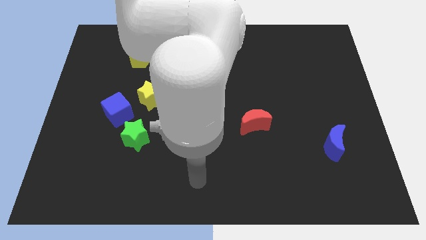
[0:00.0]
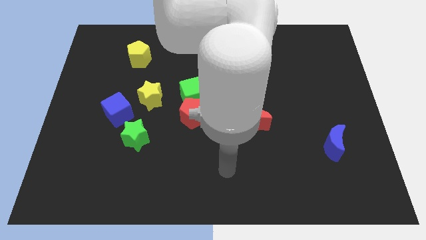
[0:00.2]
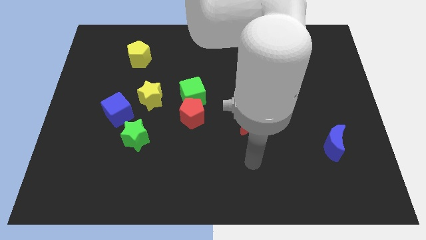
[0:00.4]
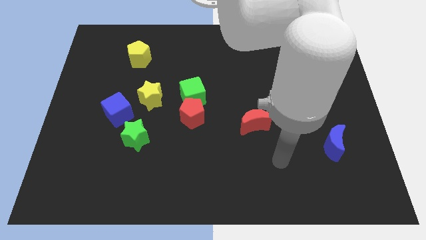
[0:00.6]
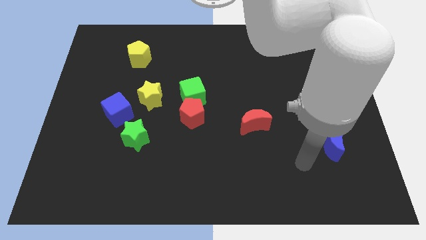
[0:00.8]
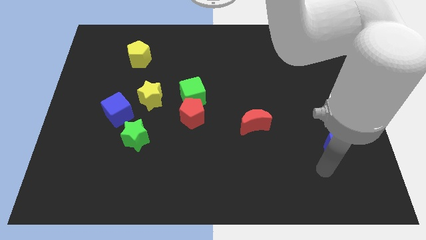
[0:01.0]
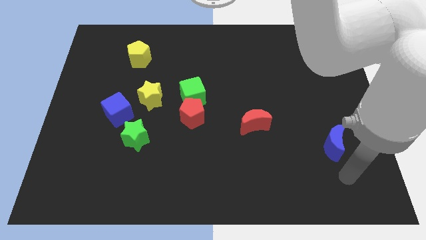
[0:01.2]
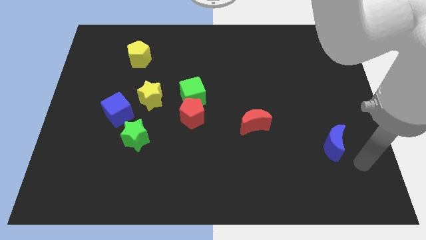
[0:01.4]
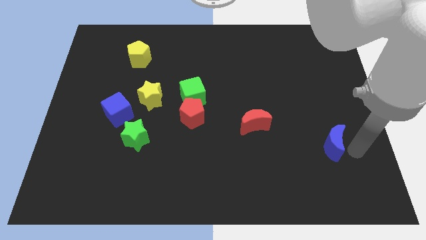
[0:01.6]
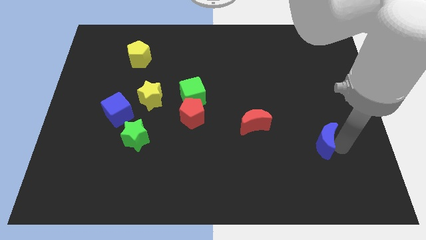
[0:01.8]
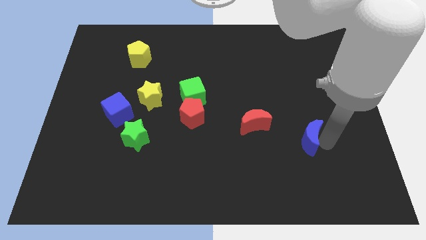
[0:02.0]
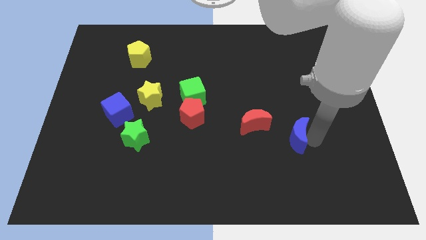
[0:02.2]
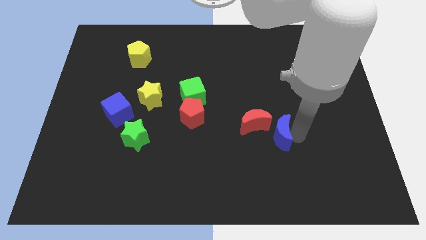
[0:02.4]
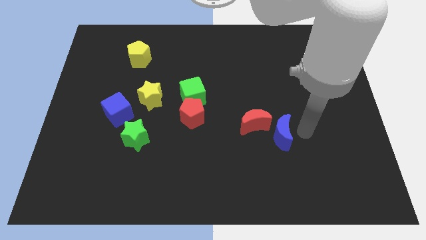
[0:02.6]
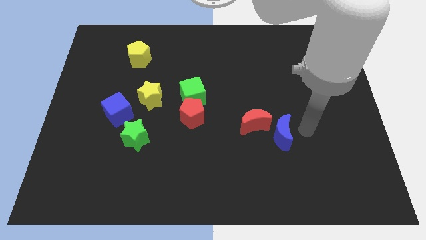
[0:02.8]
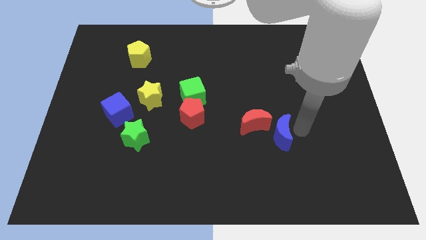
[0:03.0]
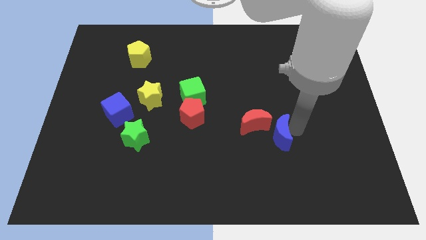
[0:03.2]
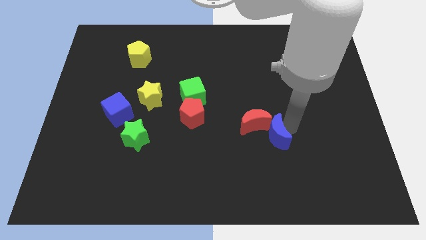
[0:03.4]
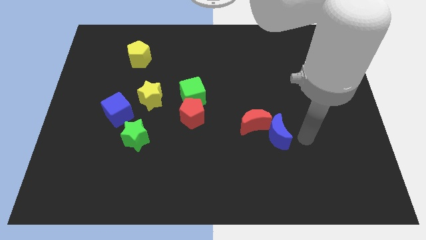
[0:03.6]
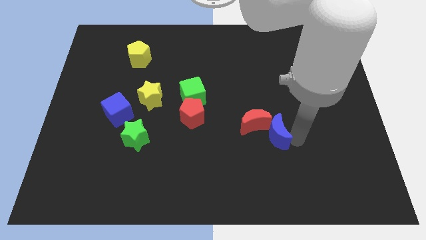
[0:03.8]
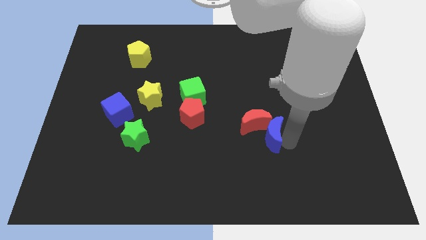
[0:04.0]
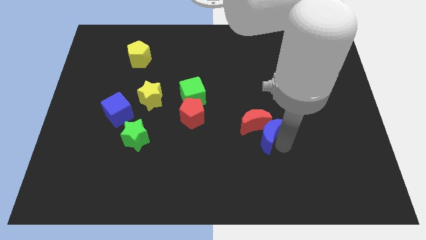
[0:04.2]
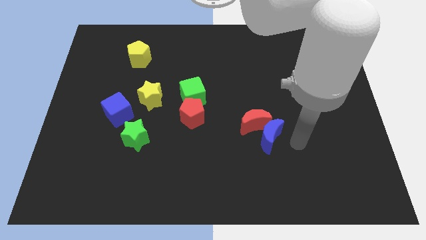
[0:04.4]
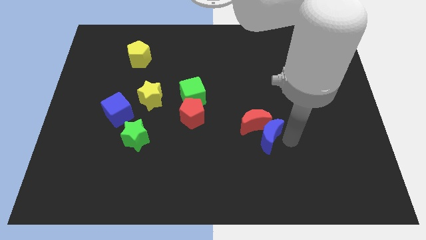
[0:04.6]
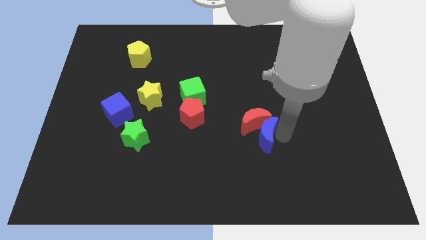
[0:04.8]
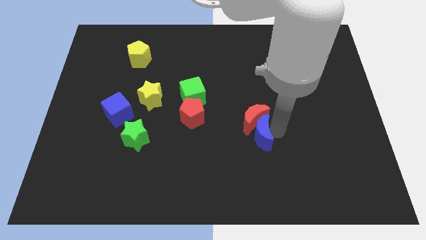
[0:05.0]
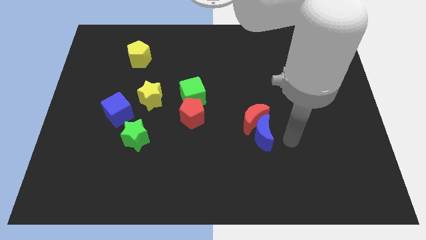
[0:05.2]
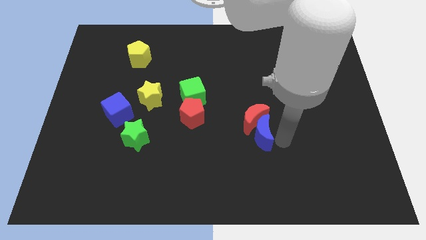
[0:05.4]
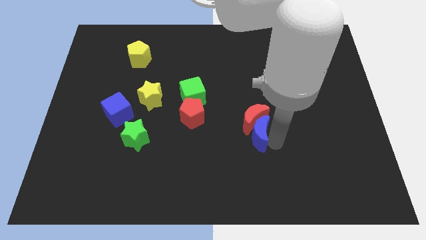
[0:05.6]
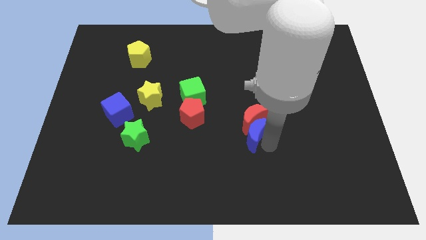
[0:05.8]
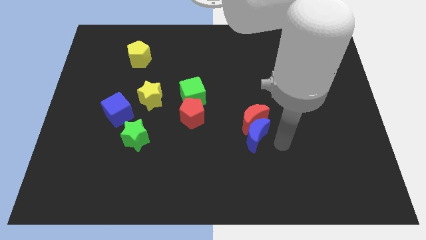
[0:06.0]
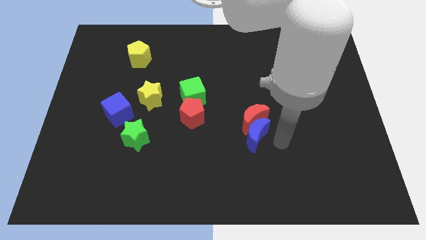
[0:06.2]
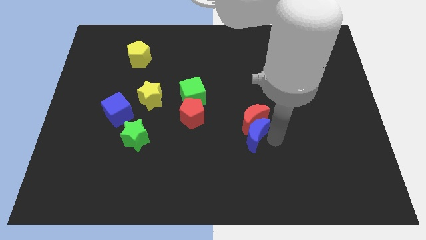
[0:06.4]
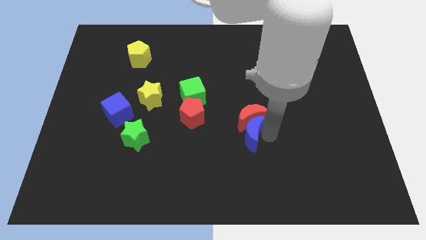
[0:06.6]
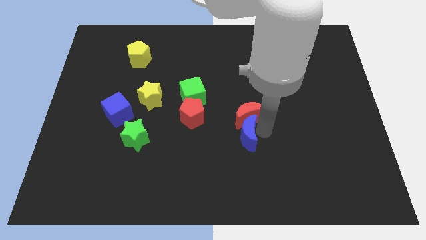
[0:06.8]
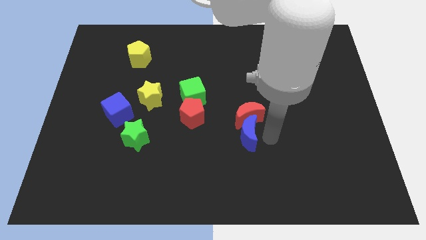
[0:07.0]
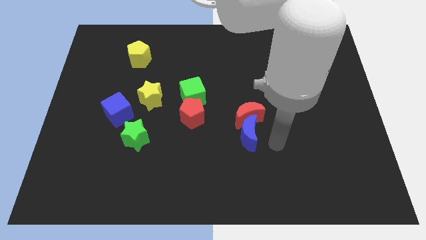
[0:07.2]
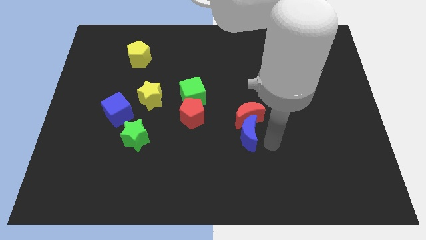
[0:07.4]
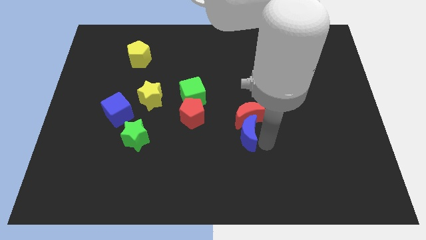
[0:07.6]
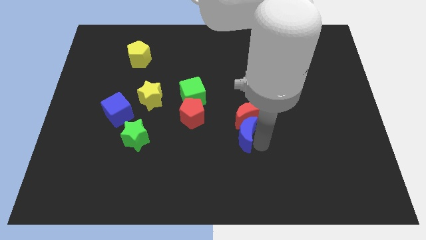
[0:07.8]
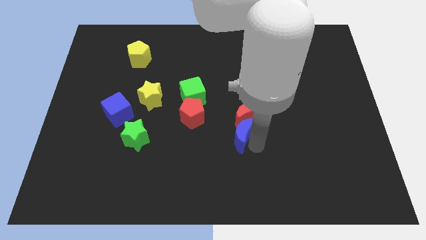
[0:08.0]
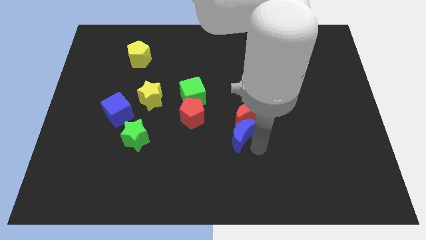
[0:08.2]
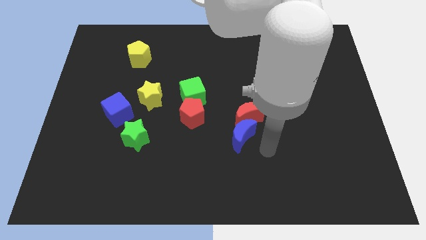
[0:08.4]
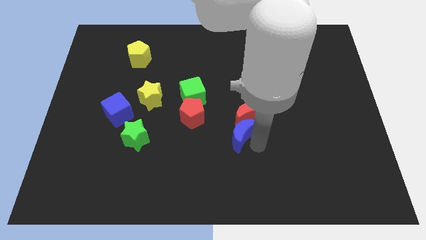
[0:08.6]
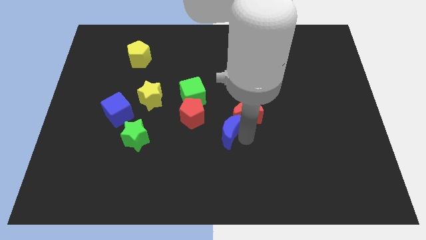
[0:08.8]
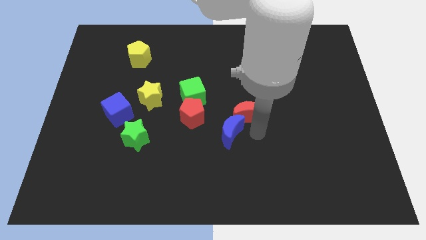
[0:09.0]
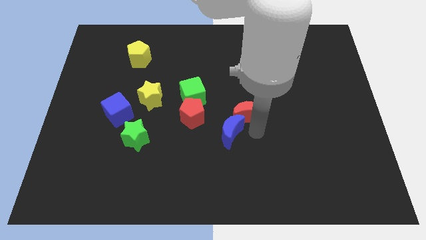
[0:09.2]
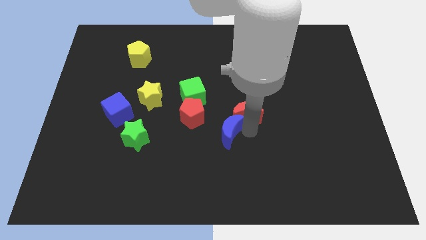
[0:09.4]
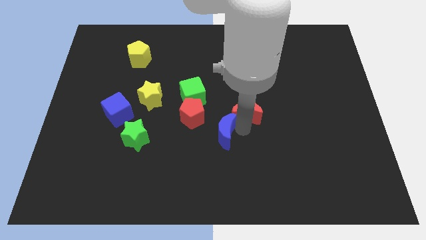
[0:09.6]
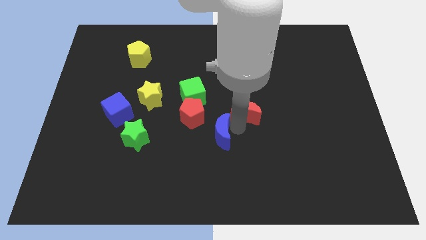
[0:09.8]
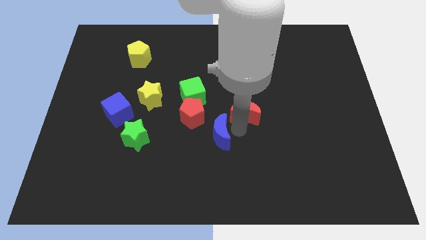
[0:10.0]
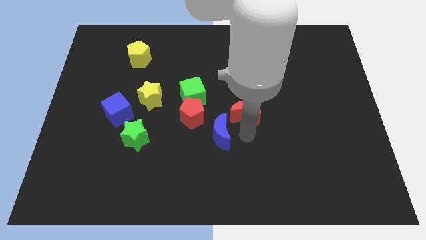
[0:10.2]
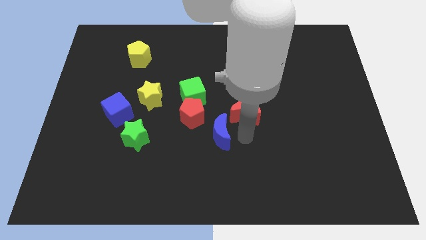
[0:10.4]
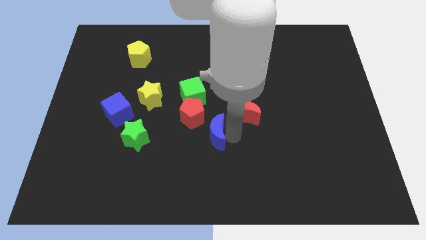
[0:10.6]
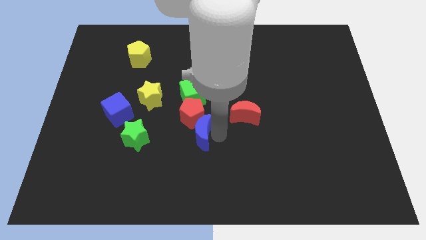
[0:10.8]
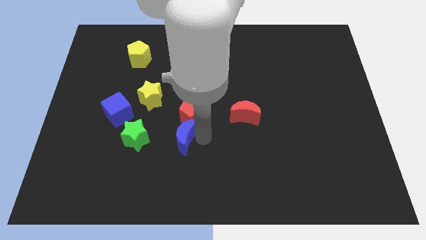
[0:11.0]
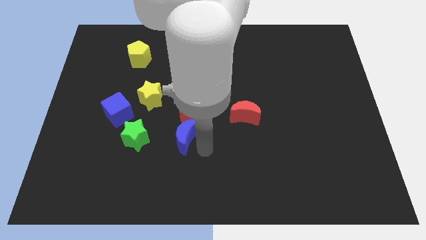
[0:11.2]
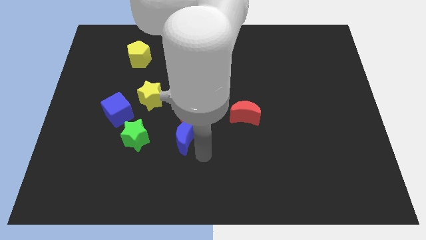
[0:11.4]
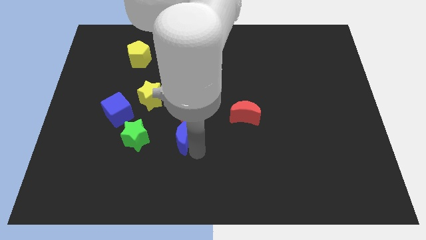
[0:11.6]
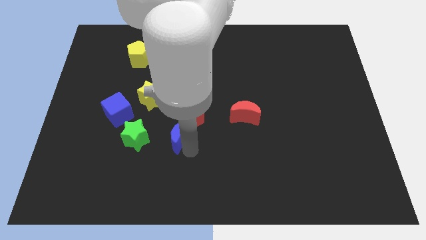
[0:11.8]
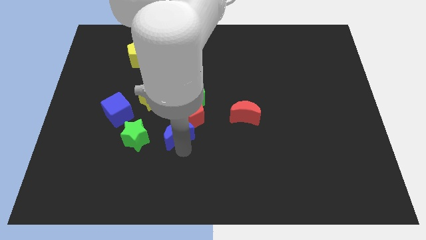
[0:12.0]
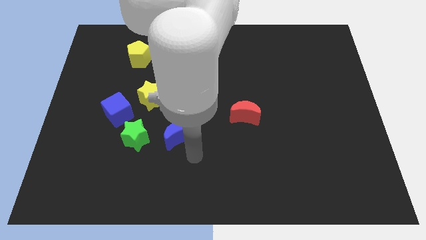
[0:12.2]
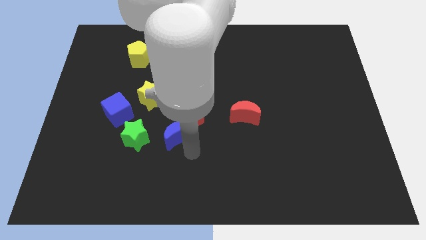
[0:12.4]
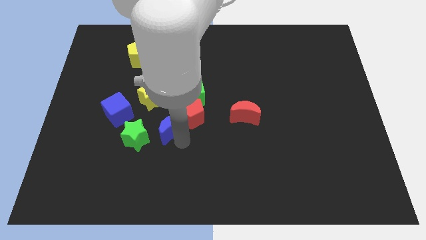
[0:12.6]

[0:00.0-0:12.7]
move the blue moon diagonally up and to the right of the green star

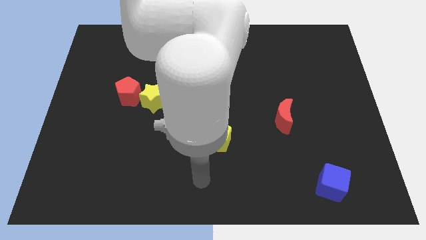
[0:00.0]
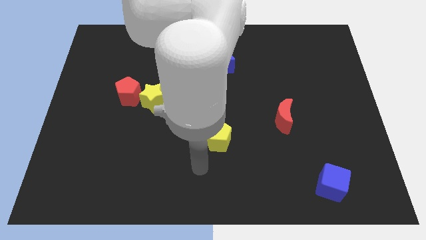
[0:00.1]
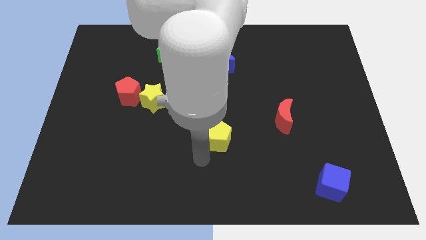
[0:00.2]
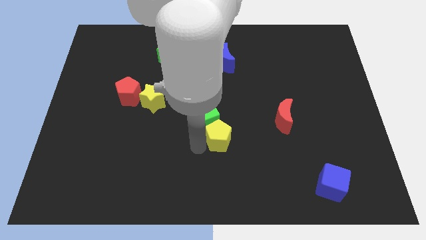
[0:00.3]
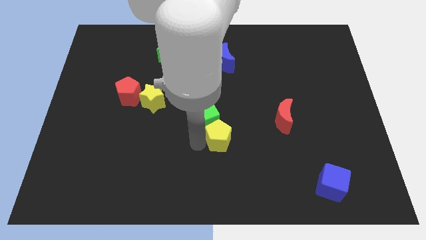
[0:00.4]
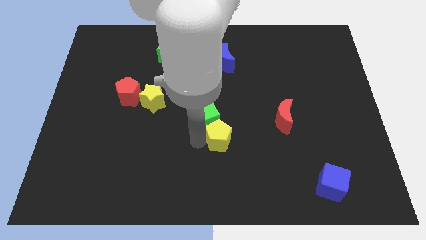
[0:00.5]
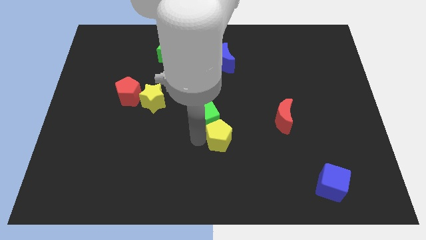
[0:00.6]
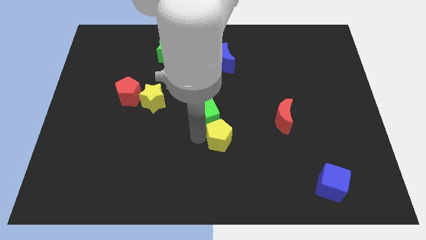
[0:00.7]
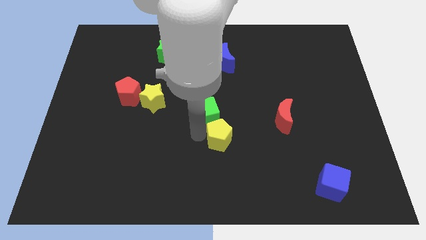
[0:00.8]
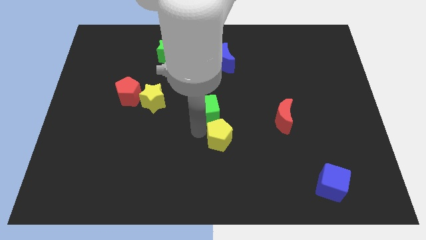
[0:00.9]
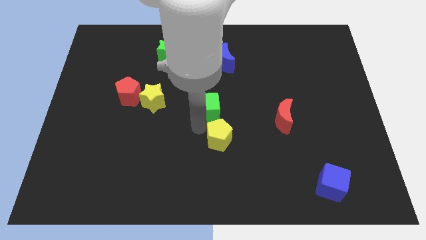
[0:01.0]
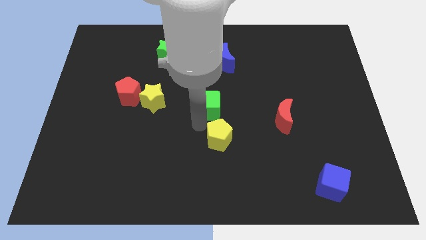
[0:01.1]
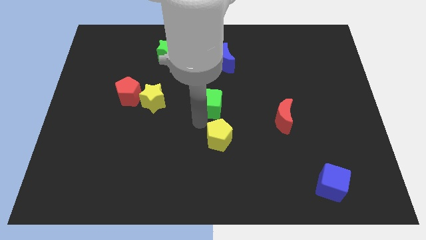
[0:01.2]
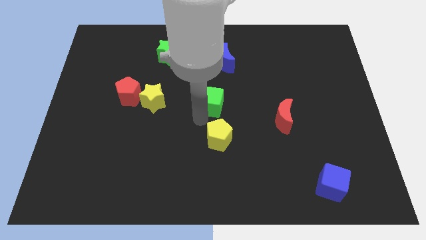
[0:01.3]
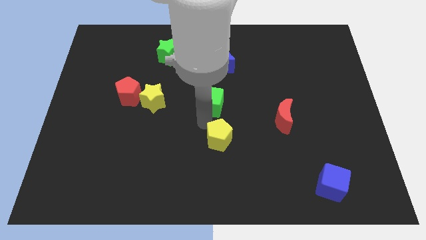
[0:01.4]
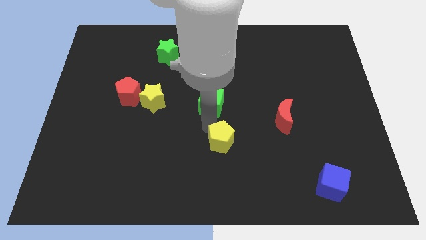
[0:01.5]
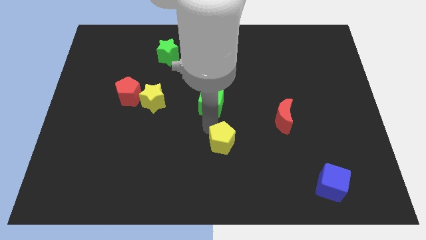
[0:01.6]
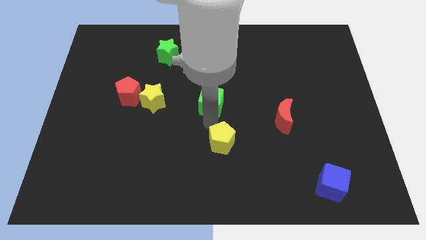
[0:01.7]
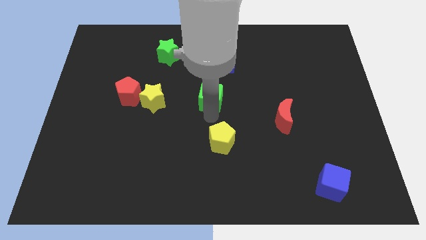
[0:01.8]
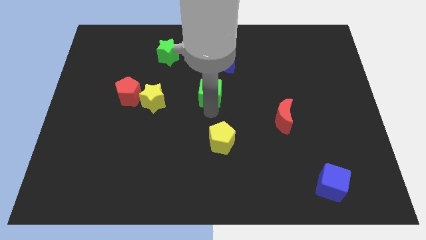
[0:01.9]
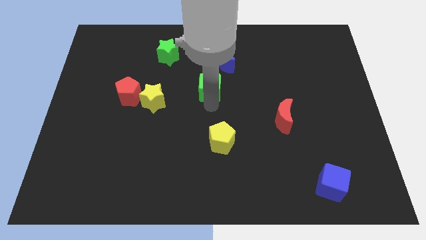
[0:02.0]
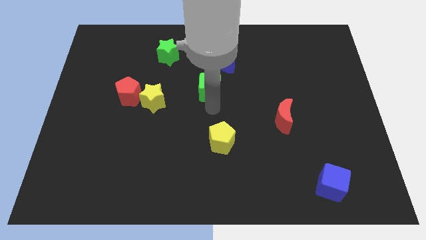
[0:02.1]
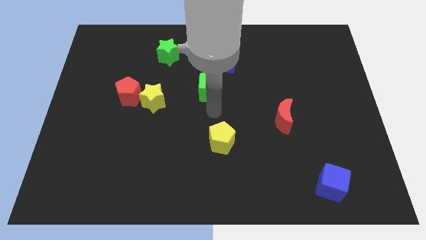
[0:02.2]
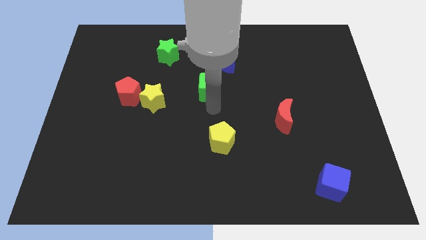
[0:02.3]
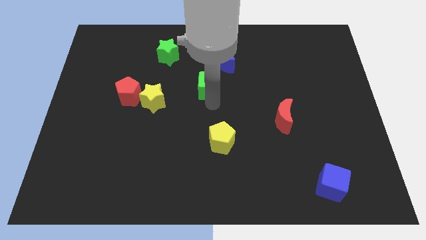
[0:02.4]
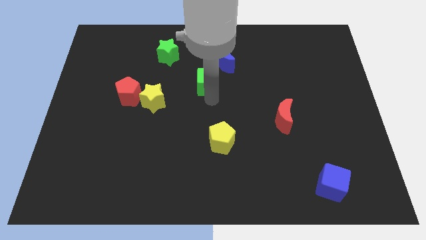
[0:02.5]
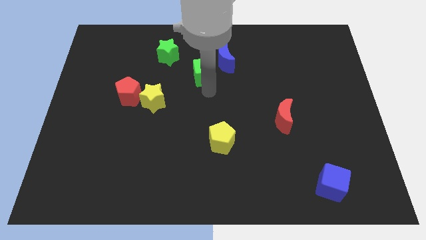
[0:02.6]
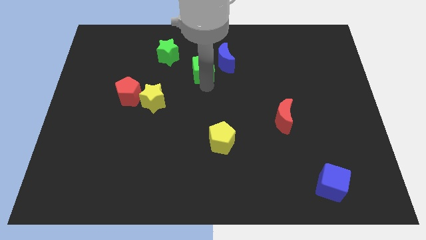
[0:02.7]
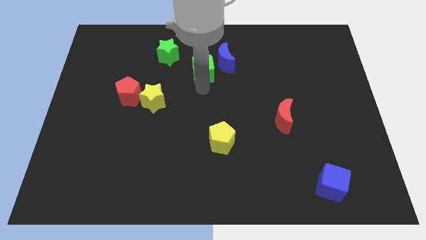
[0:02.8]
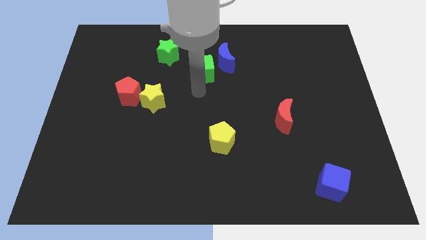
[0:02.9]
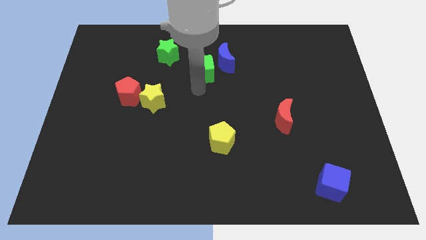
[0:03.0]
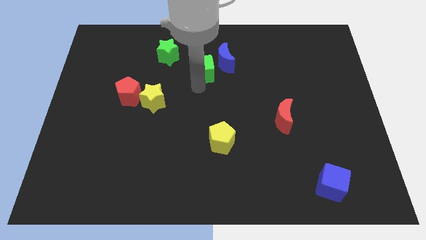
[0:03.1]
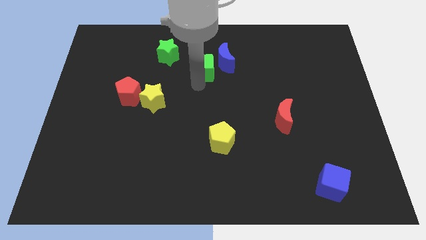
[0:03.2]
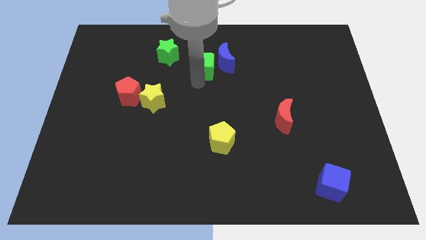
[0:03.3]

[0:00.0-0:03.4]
move the green cube just right of the green star
